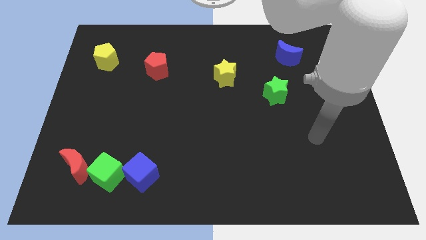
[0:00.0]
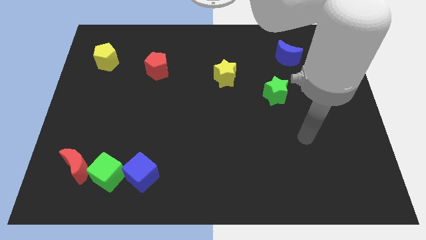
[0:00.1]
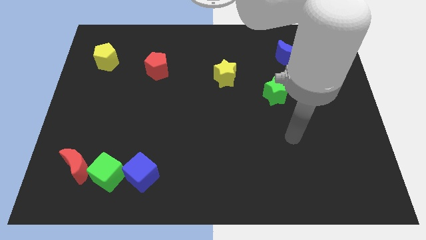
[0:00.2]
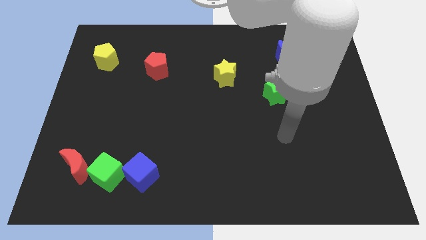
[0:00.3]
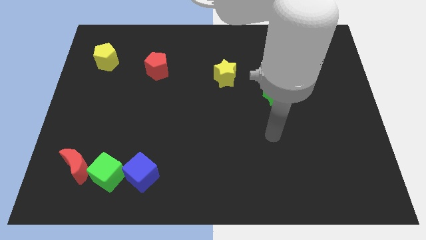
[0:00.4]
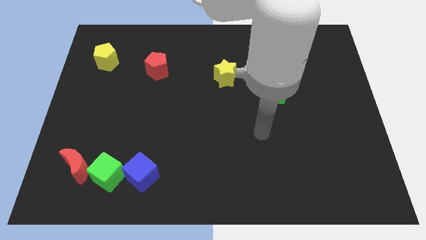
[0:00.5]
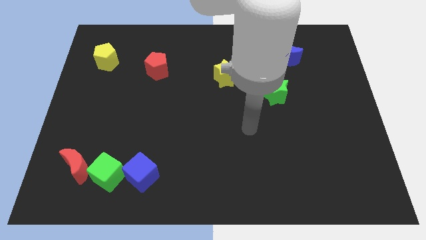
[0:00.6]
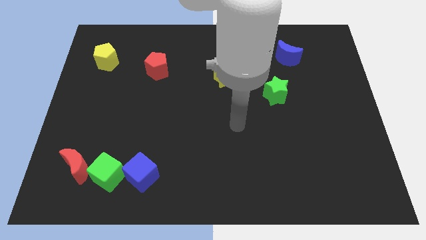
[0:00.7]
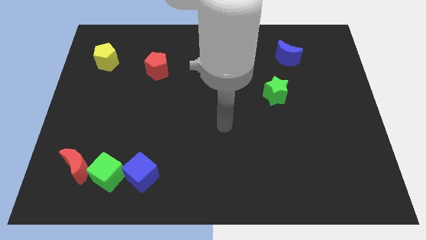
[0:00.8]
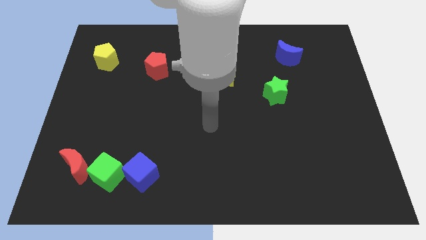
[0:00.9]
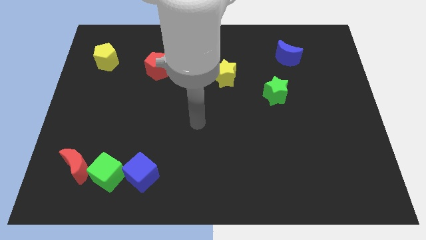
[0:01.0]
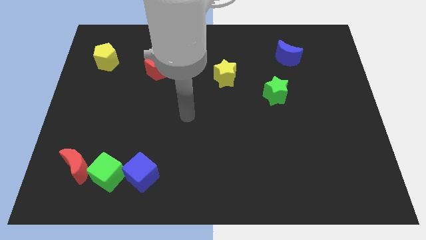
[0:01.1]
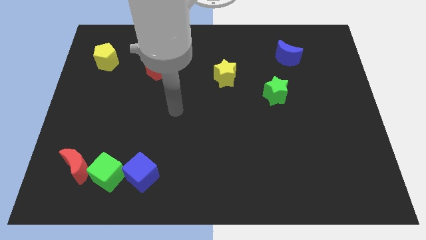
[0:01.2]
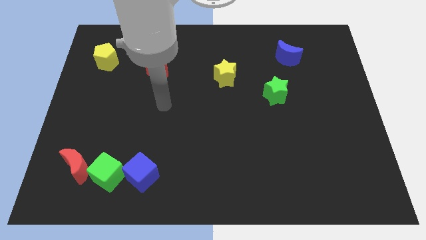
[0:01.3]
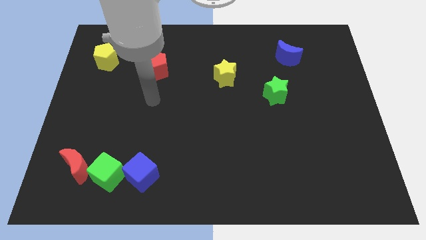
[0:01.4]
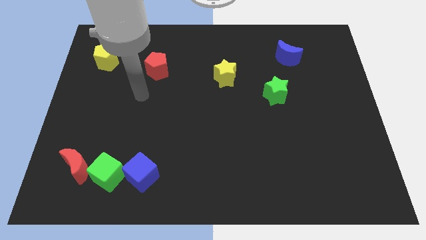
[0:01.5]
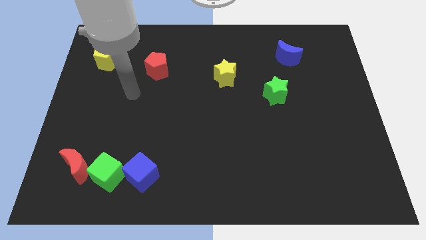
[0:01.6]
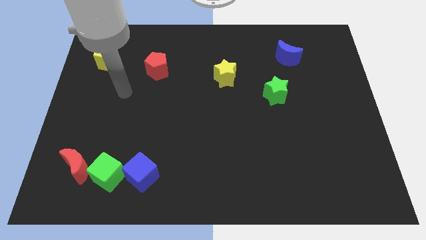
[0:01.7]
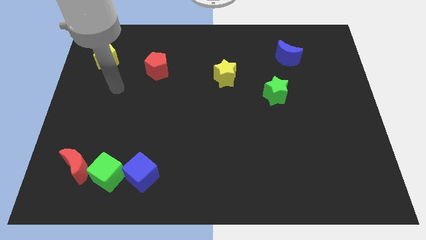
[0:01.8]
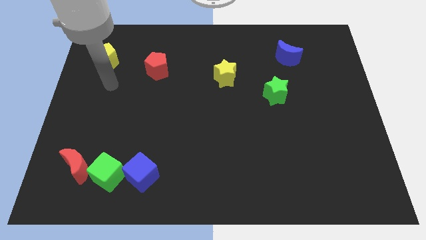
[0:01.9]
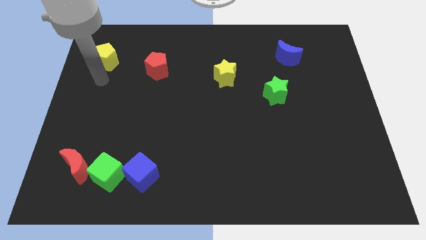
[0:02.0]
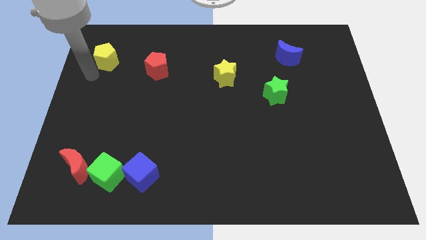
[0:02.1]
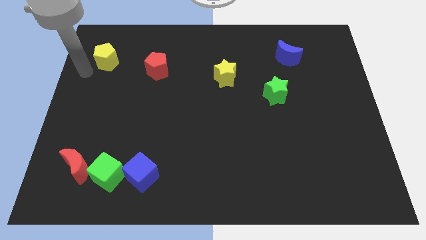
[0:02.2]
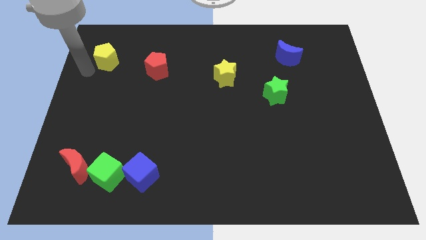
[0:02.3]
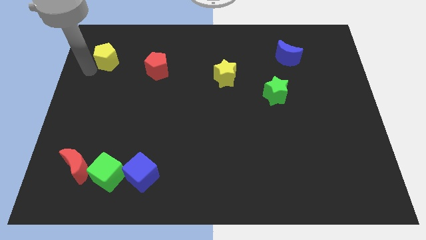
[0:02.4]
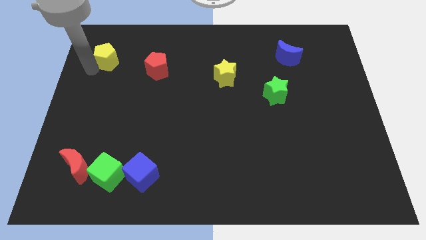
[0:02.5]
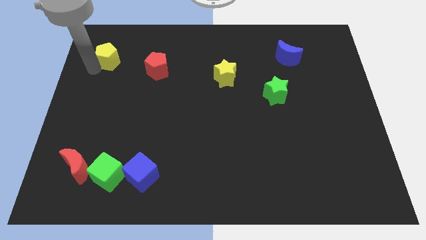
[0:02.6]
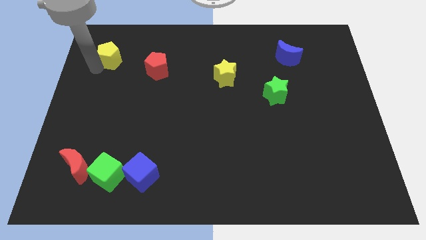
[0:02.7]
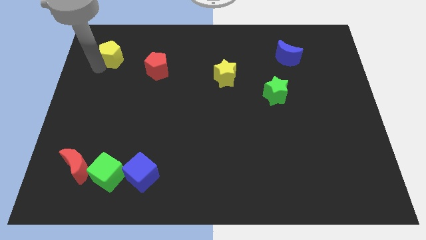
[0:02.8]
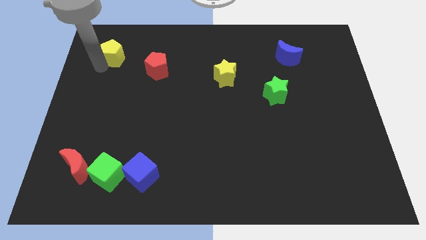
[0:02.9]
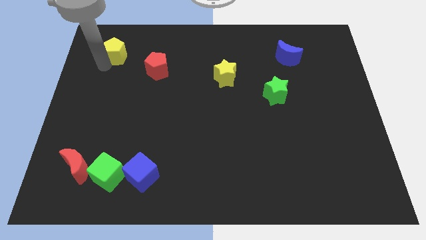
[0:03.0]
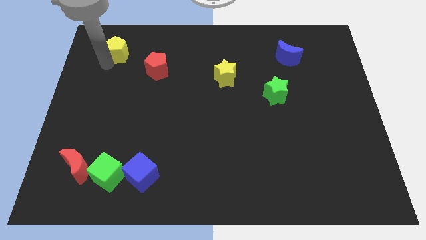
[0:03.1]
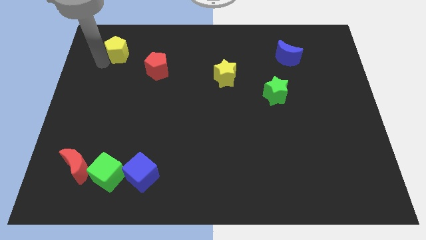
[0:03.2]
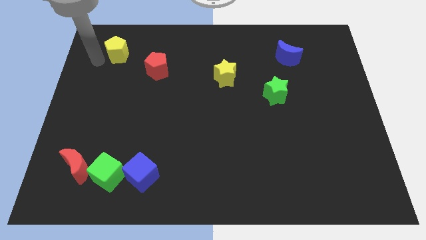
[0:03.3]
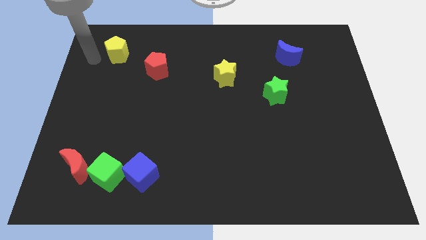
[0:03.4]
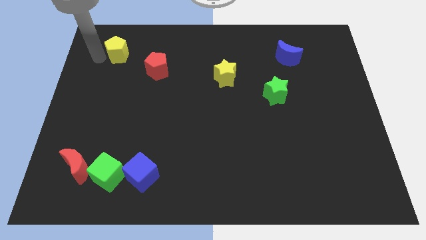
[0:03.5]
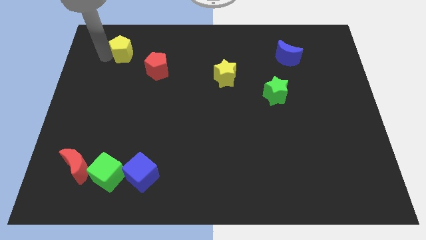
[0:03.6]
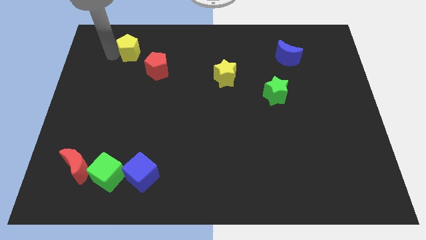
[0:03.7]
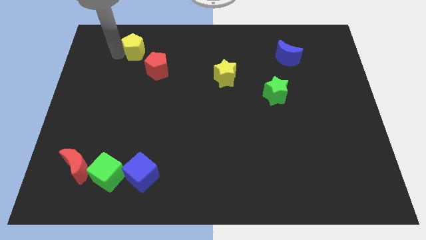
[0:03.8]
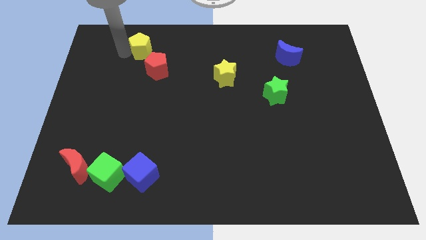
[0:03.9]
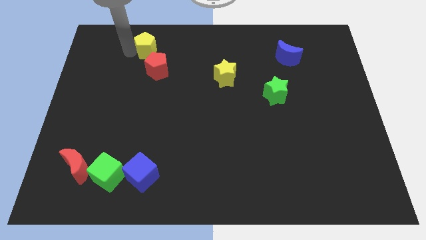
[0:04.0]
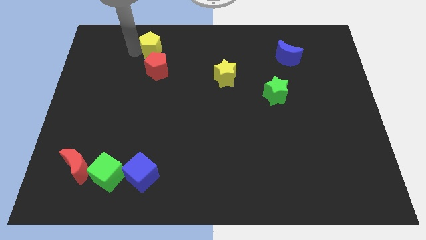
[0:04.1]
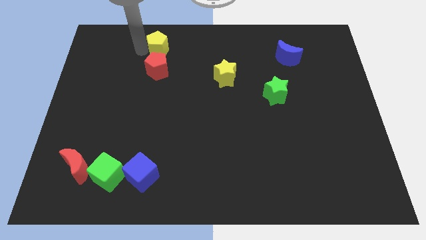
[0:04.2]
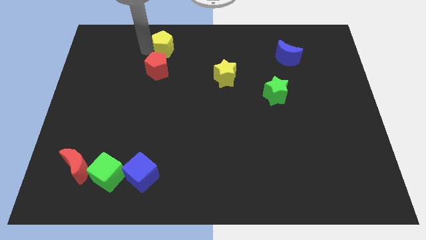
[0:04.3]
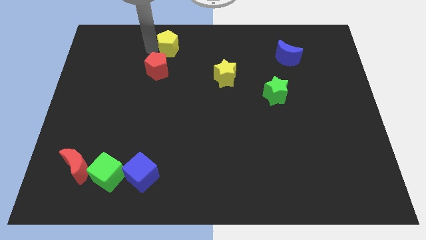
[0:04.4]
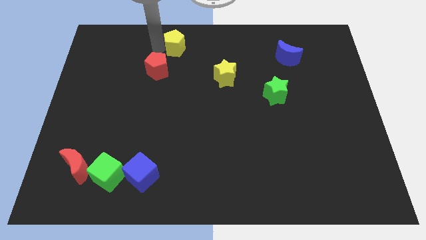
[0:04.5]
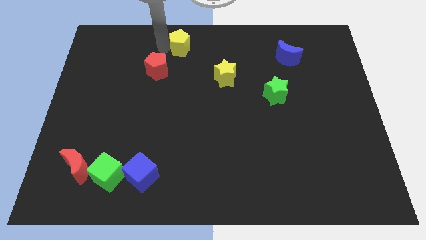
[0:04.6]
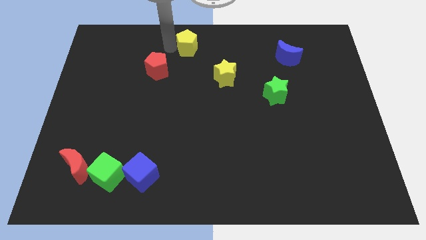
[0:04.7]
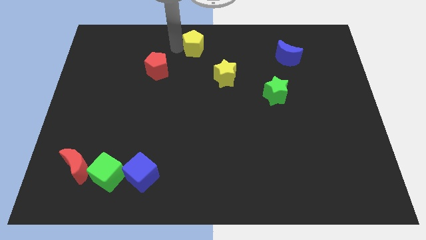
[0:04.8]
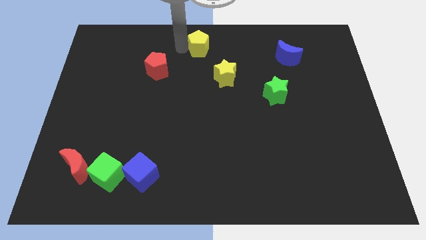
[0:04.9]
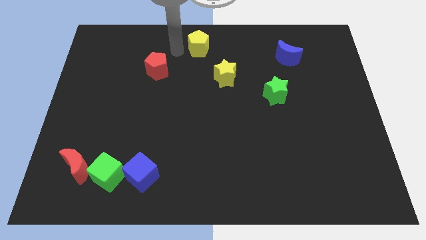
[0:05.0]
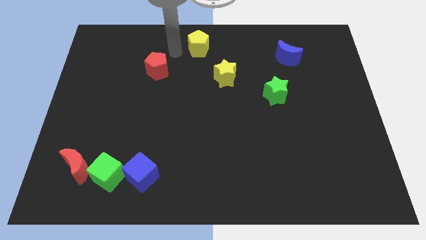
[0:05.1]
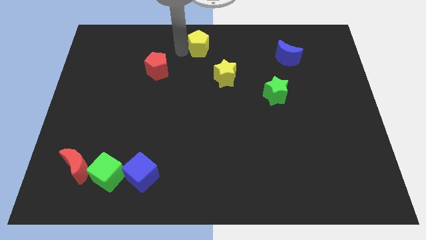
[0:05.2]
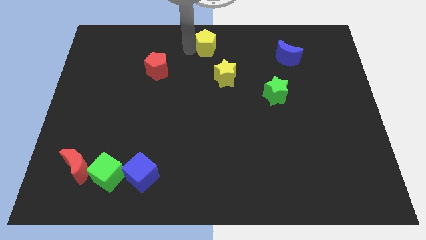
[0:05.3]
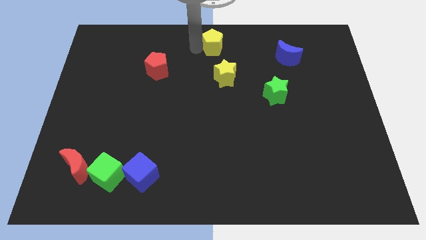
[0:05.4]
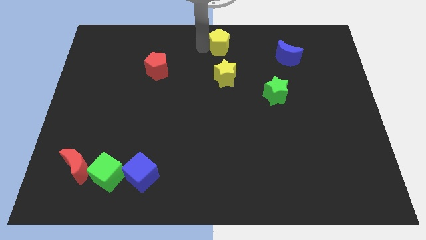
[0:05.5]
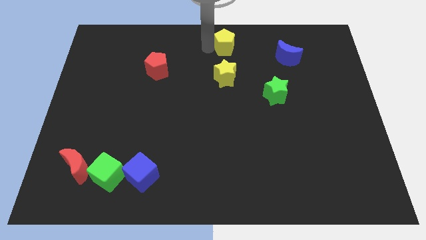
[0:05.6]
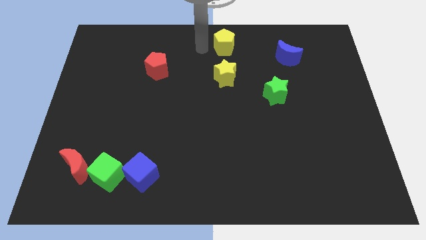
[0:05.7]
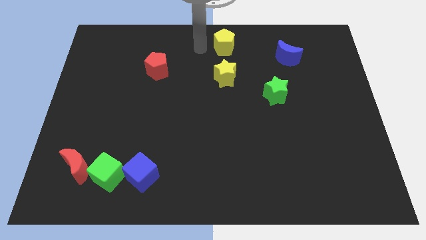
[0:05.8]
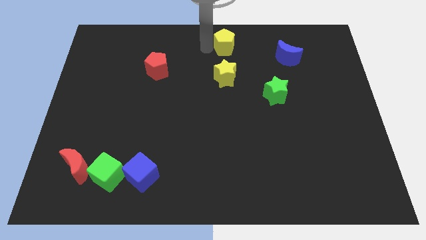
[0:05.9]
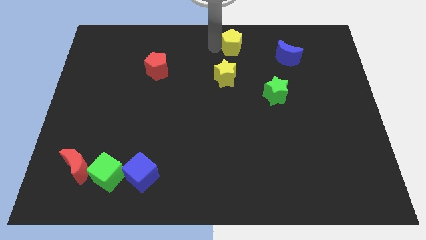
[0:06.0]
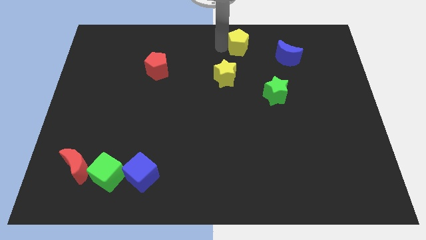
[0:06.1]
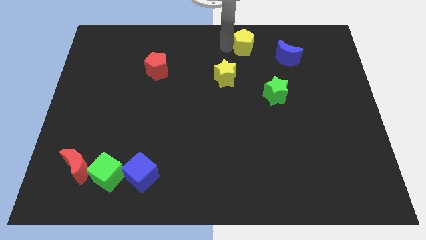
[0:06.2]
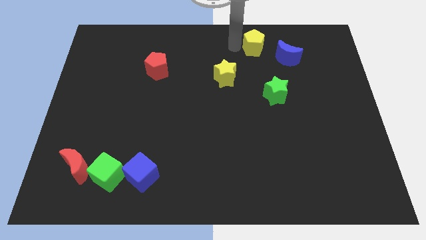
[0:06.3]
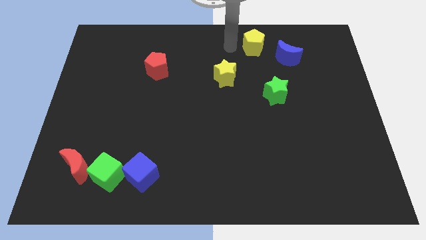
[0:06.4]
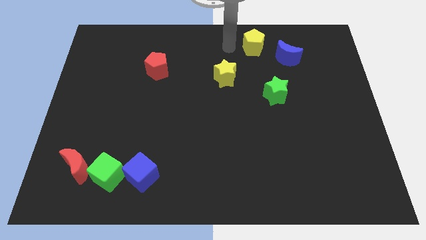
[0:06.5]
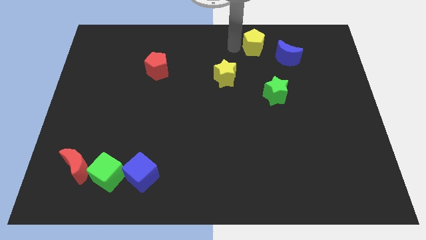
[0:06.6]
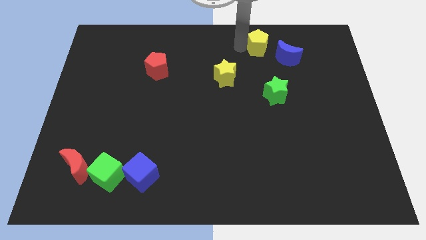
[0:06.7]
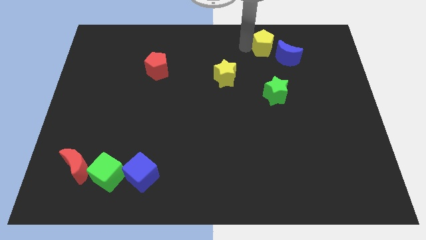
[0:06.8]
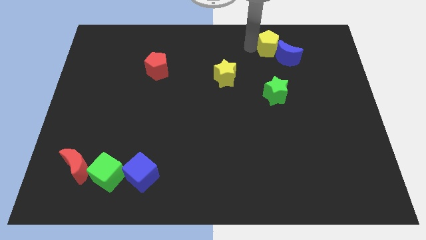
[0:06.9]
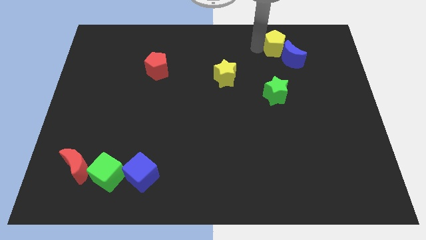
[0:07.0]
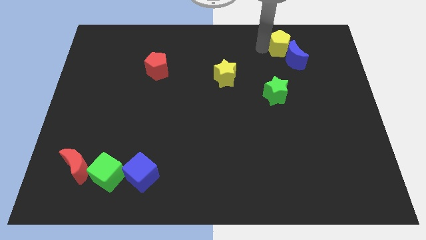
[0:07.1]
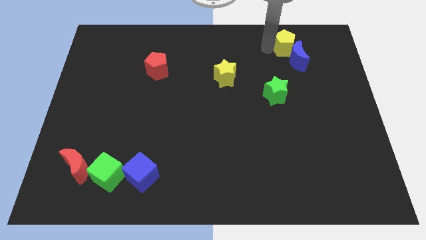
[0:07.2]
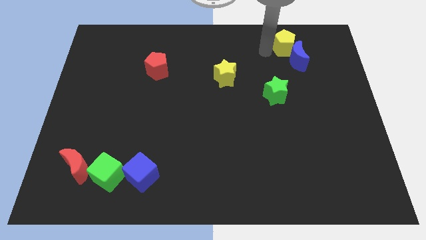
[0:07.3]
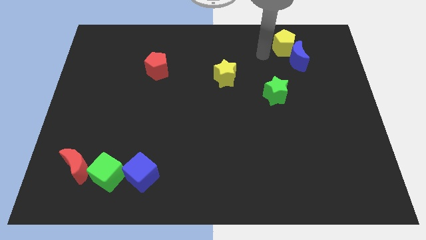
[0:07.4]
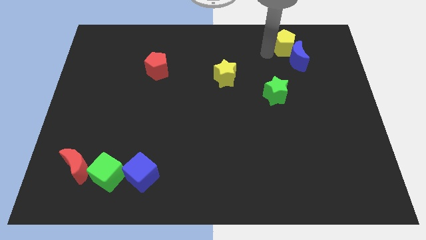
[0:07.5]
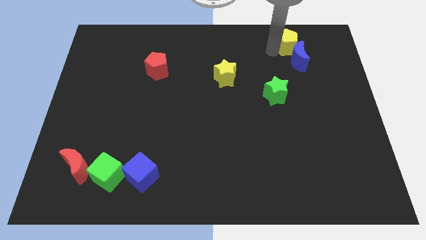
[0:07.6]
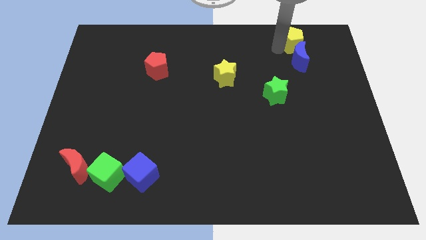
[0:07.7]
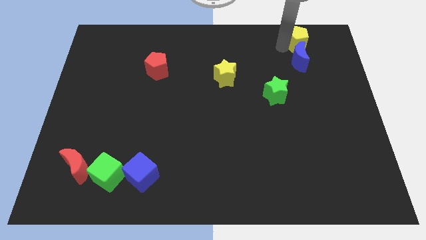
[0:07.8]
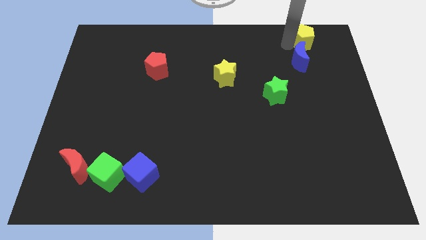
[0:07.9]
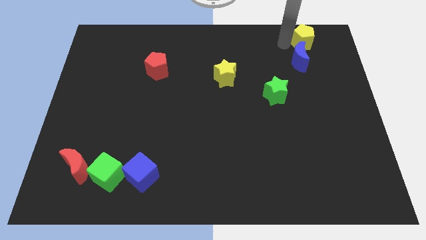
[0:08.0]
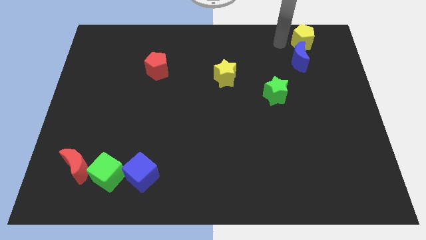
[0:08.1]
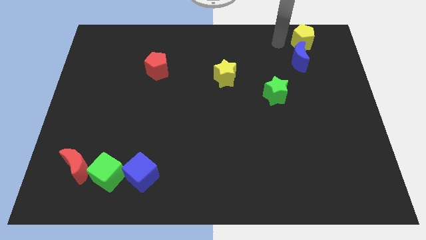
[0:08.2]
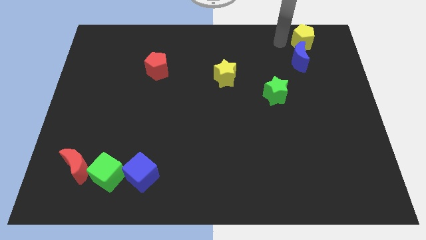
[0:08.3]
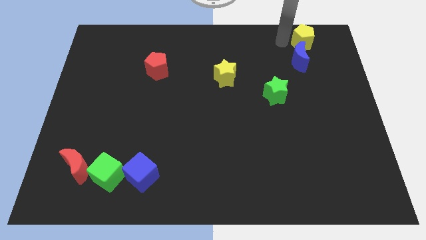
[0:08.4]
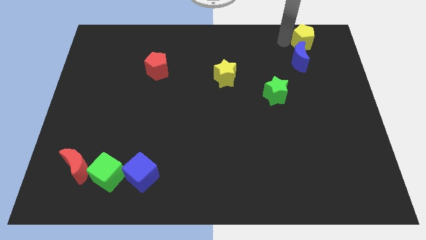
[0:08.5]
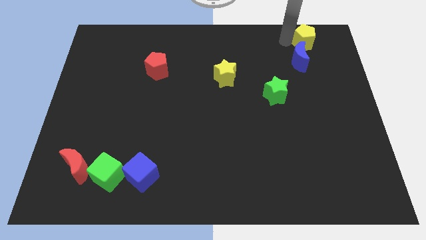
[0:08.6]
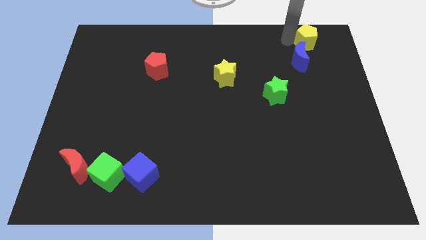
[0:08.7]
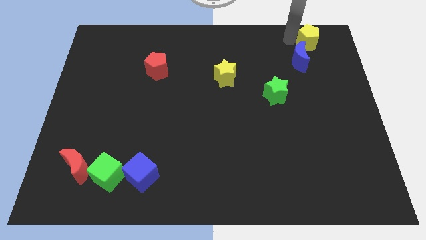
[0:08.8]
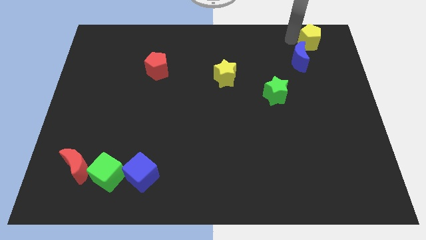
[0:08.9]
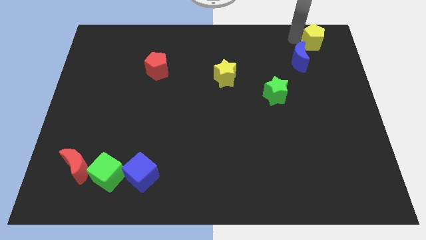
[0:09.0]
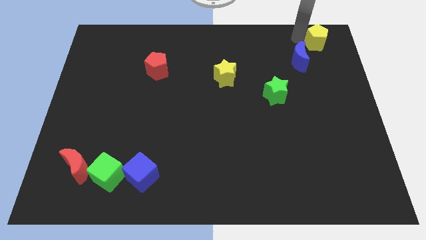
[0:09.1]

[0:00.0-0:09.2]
slide the yellow pentagon to the top right corner
